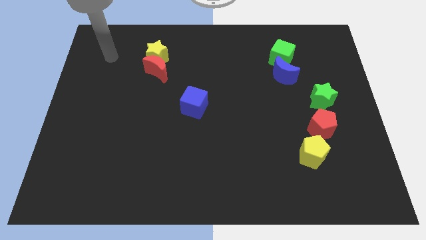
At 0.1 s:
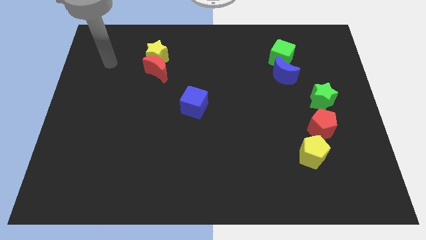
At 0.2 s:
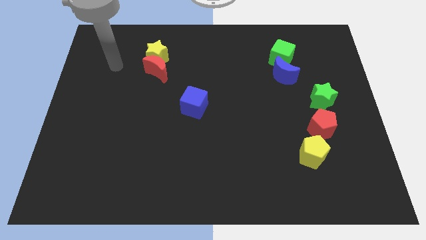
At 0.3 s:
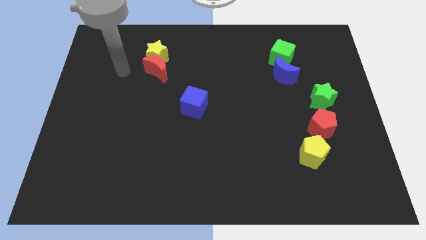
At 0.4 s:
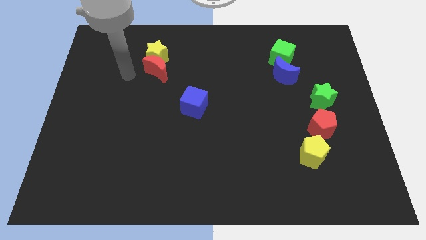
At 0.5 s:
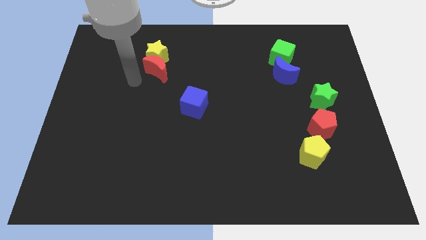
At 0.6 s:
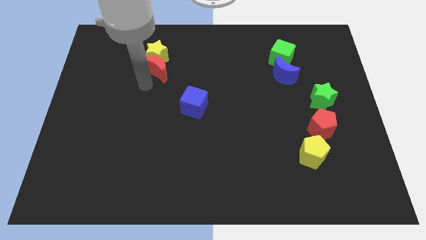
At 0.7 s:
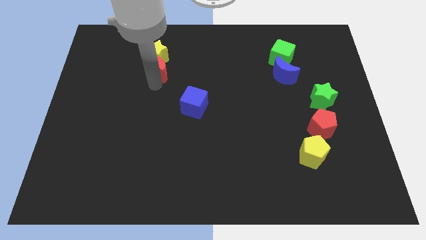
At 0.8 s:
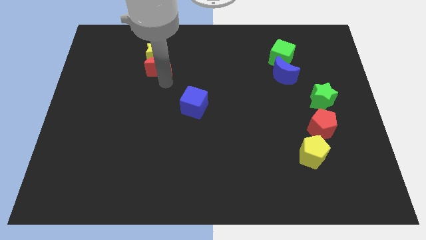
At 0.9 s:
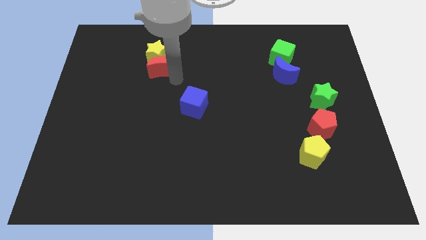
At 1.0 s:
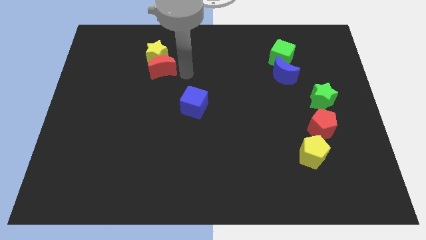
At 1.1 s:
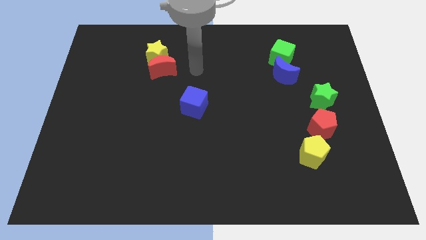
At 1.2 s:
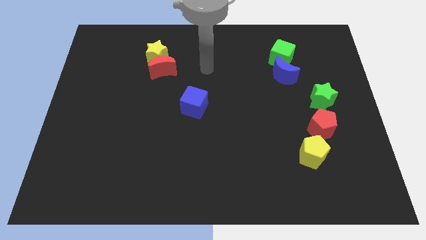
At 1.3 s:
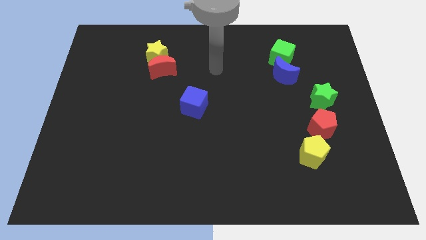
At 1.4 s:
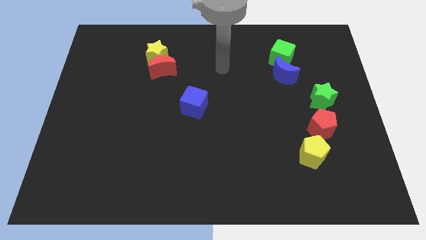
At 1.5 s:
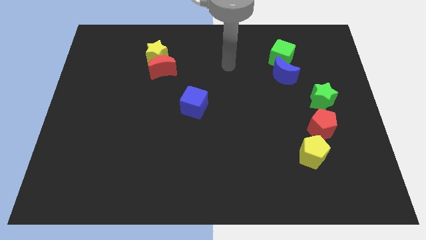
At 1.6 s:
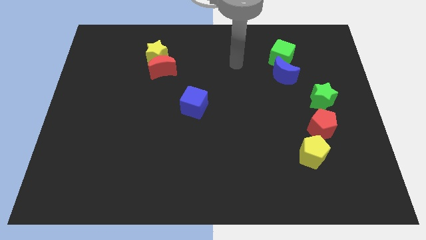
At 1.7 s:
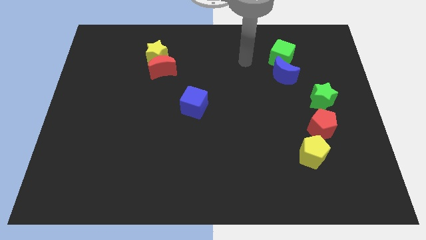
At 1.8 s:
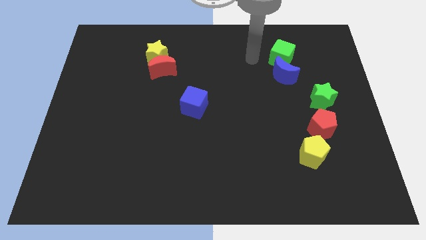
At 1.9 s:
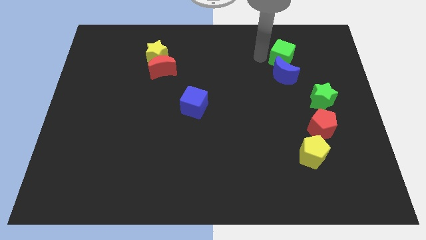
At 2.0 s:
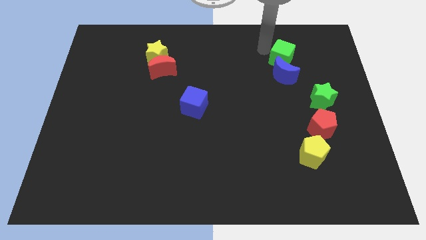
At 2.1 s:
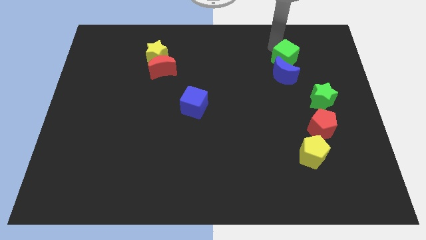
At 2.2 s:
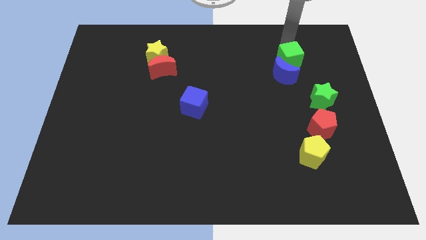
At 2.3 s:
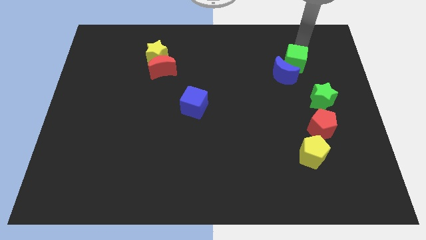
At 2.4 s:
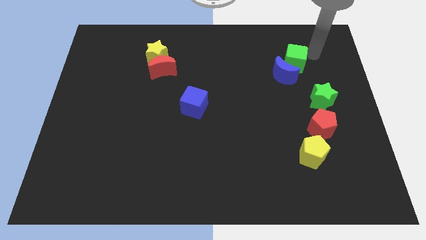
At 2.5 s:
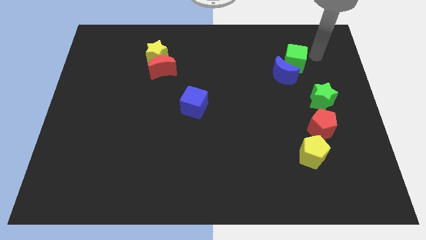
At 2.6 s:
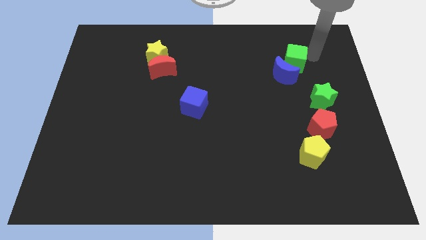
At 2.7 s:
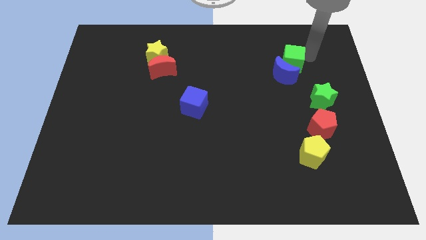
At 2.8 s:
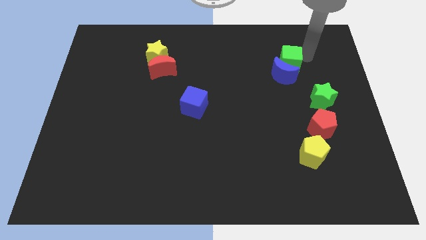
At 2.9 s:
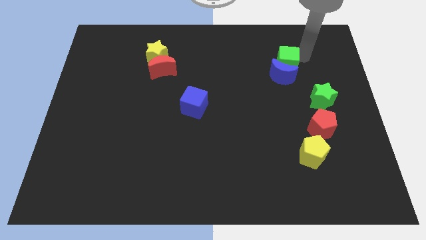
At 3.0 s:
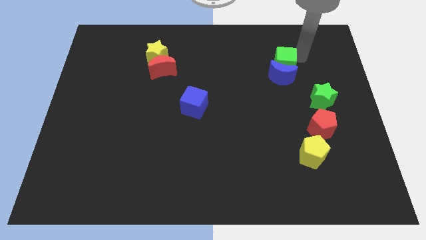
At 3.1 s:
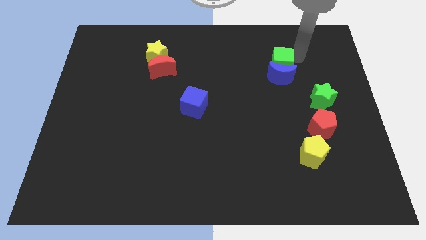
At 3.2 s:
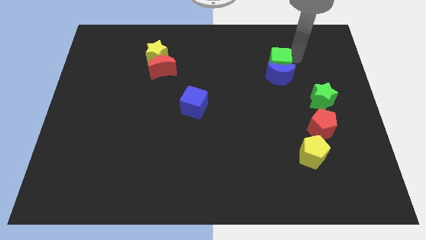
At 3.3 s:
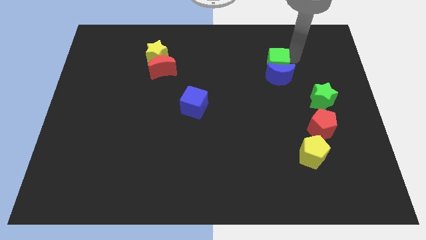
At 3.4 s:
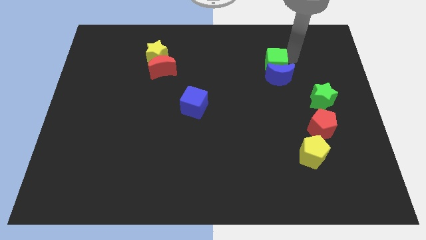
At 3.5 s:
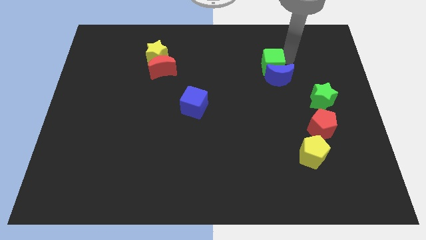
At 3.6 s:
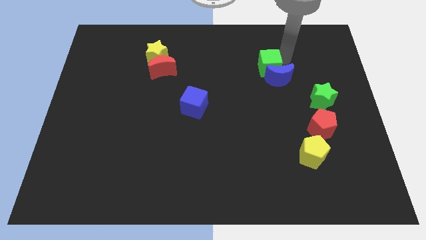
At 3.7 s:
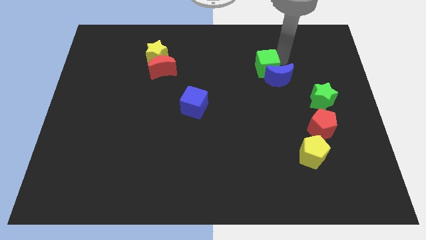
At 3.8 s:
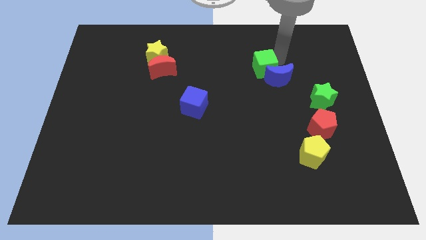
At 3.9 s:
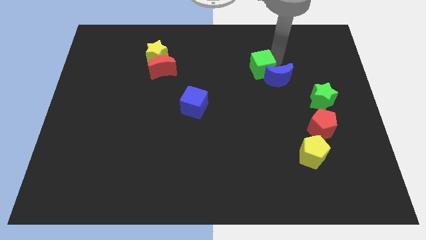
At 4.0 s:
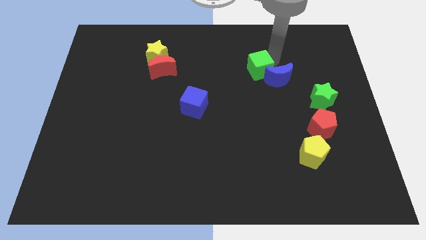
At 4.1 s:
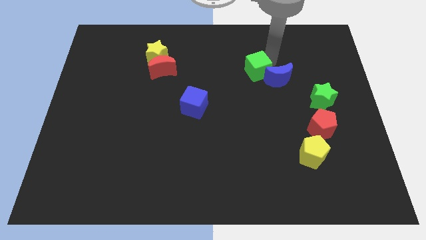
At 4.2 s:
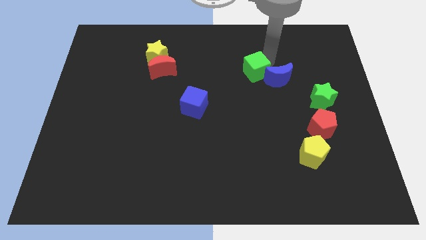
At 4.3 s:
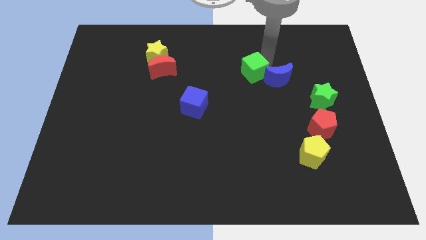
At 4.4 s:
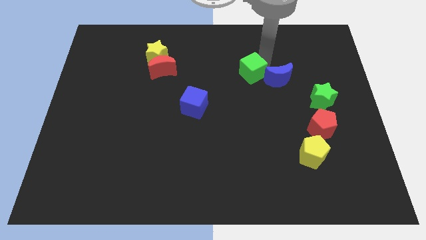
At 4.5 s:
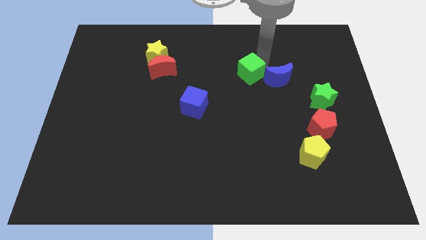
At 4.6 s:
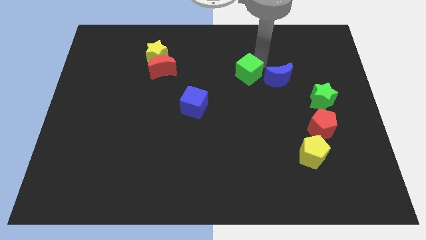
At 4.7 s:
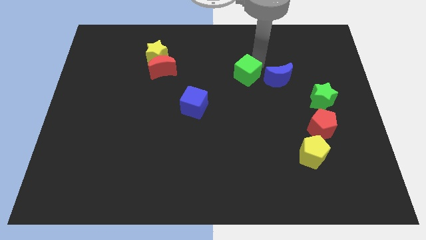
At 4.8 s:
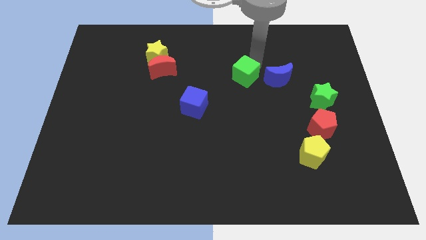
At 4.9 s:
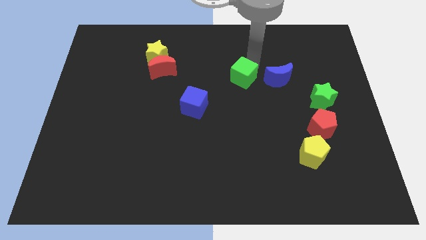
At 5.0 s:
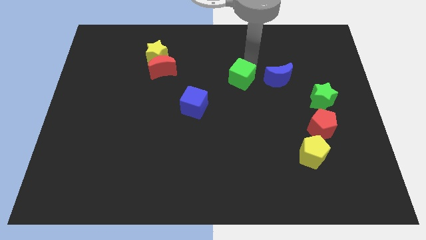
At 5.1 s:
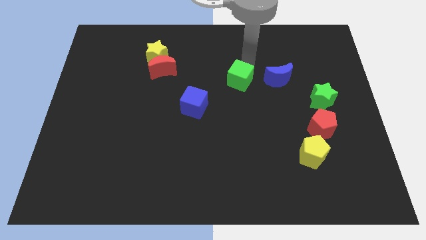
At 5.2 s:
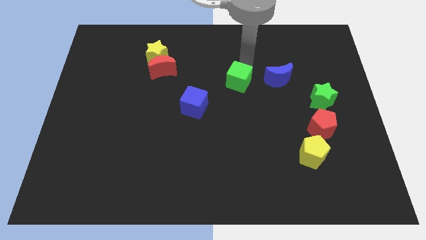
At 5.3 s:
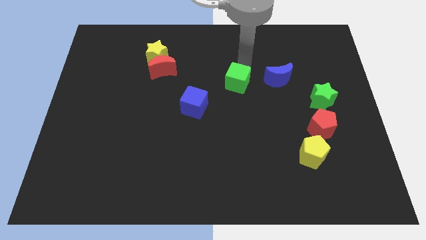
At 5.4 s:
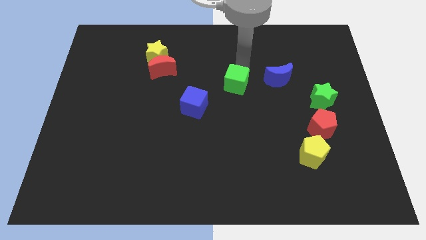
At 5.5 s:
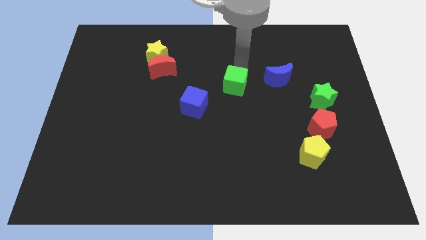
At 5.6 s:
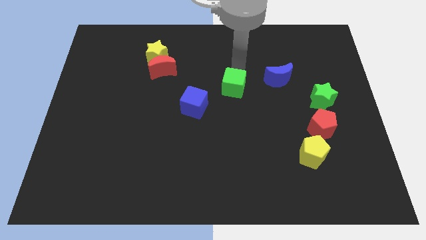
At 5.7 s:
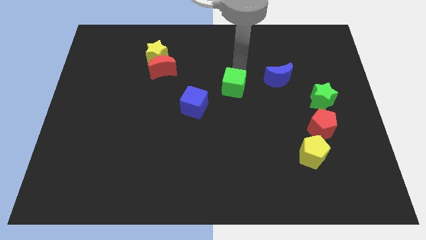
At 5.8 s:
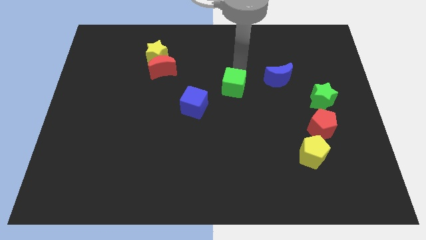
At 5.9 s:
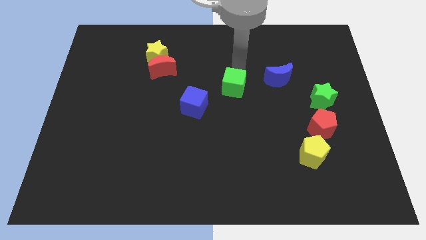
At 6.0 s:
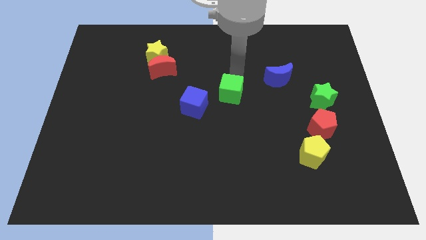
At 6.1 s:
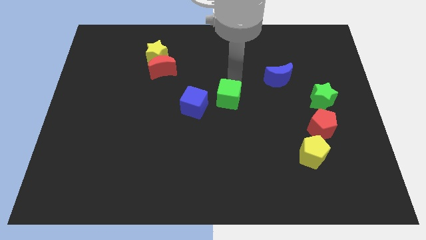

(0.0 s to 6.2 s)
move the green cube downwards and then to the left

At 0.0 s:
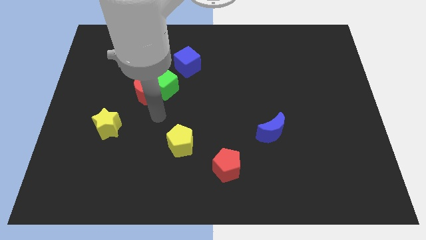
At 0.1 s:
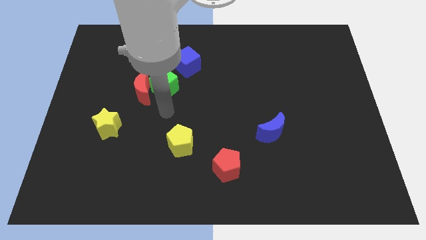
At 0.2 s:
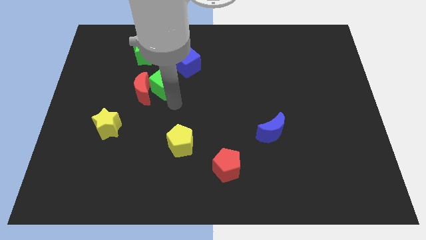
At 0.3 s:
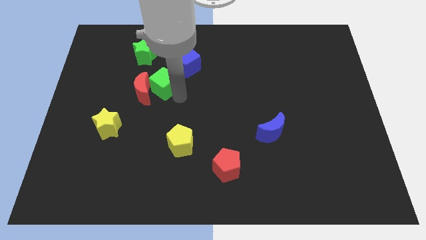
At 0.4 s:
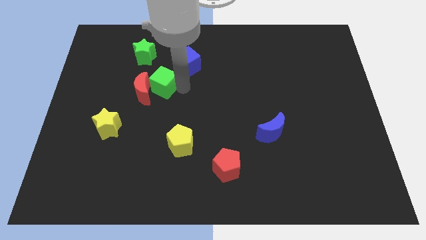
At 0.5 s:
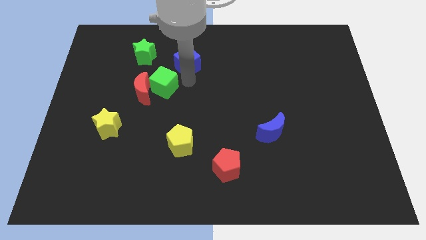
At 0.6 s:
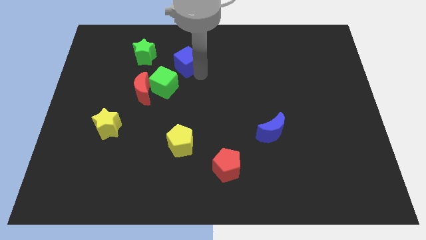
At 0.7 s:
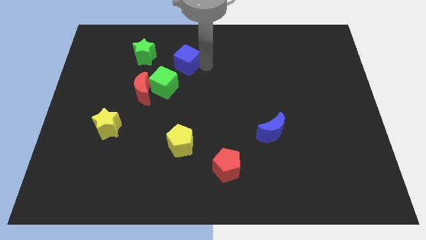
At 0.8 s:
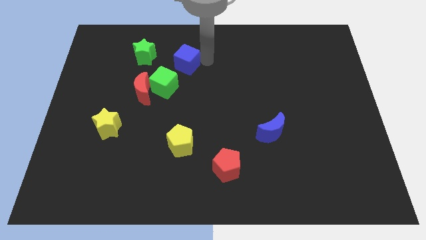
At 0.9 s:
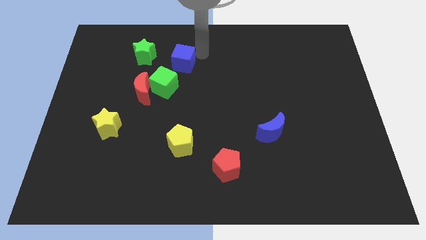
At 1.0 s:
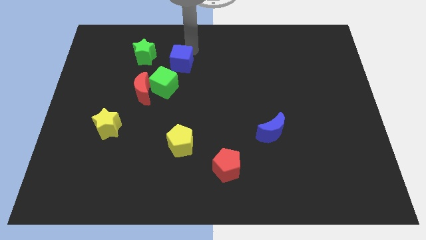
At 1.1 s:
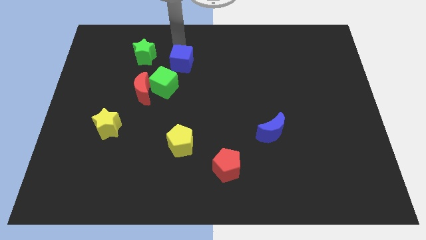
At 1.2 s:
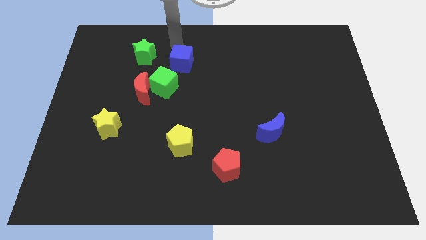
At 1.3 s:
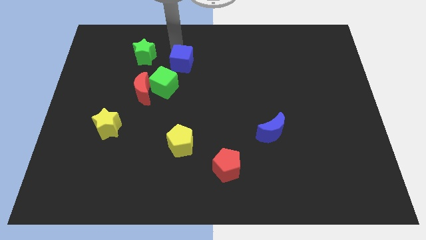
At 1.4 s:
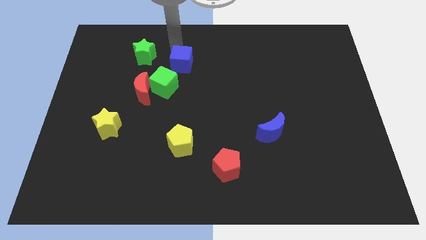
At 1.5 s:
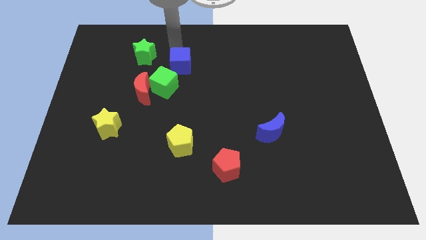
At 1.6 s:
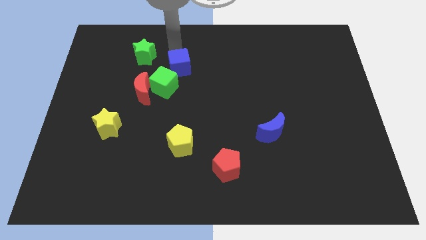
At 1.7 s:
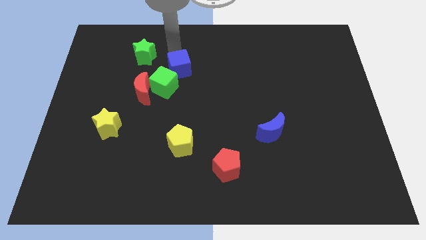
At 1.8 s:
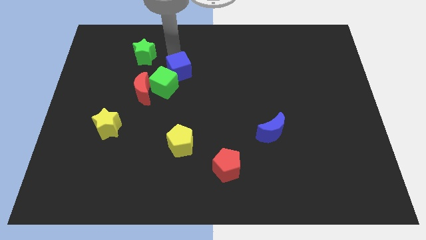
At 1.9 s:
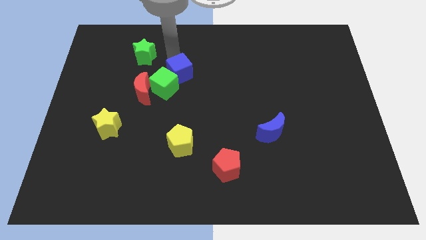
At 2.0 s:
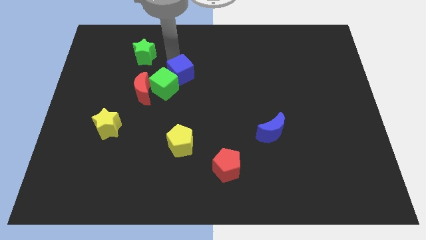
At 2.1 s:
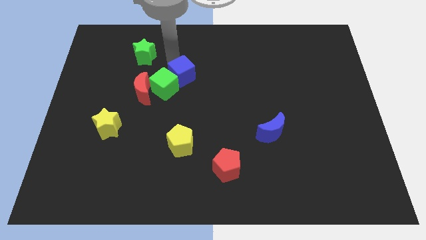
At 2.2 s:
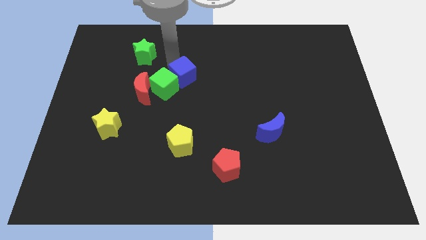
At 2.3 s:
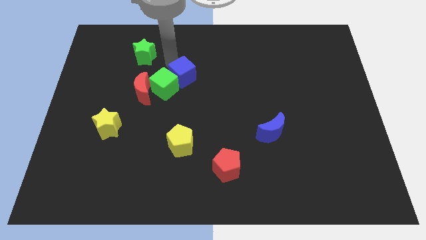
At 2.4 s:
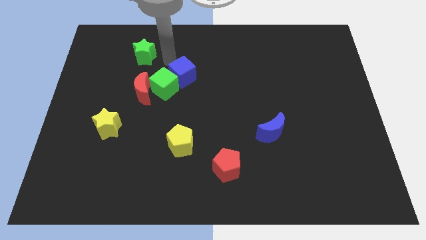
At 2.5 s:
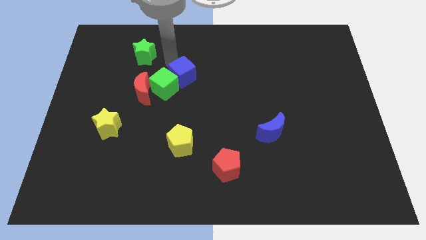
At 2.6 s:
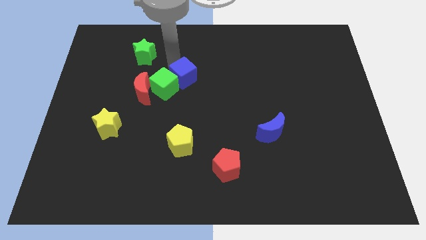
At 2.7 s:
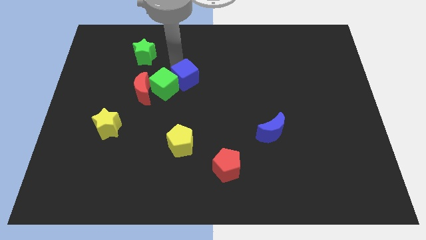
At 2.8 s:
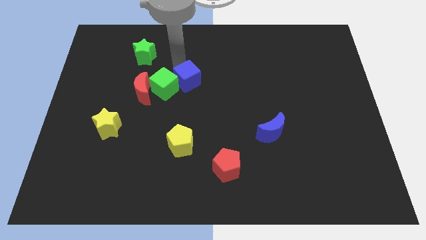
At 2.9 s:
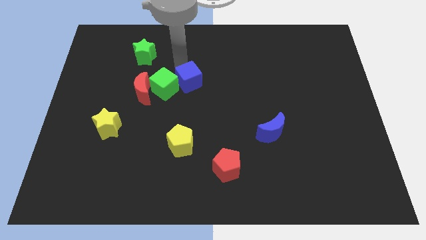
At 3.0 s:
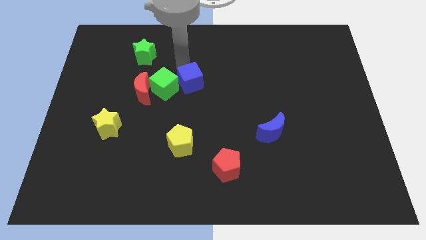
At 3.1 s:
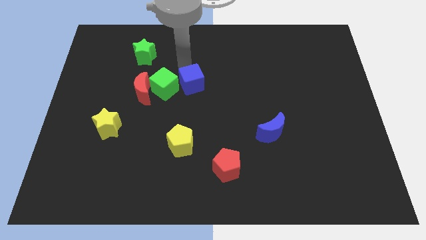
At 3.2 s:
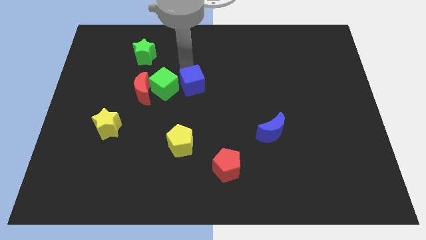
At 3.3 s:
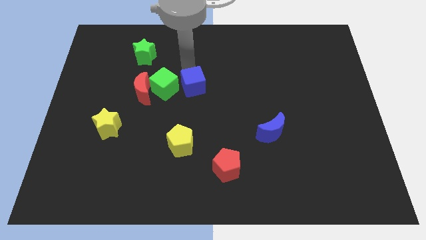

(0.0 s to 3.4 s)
move the blue cube downwards a little
